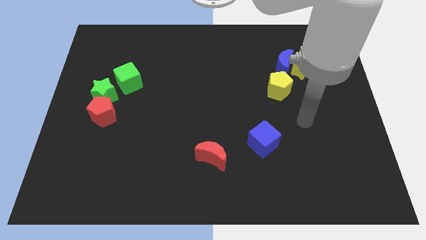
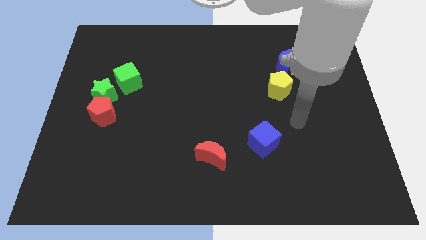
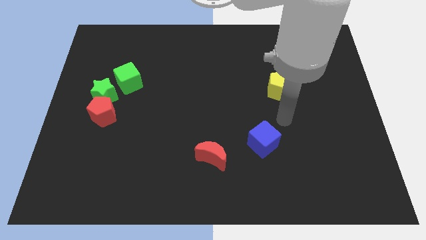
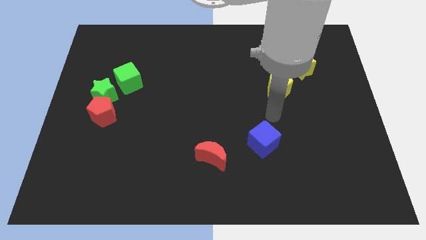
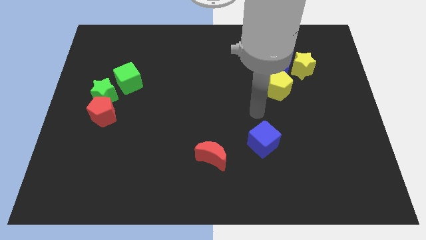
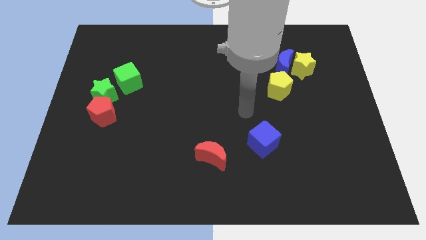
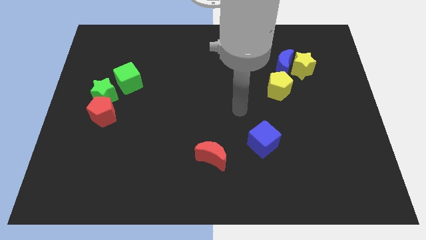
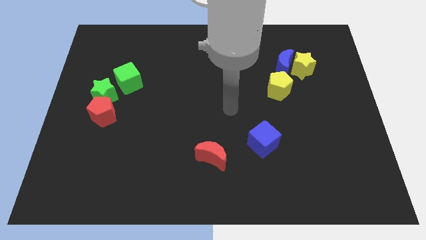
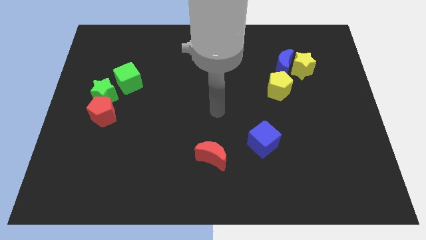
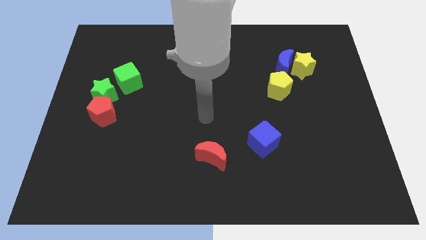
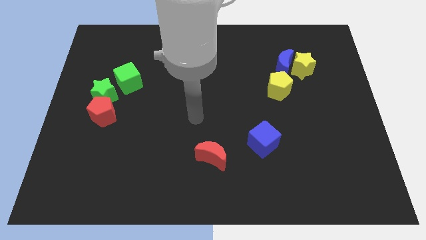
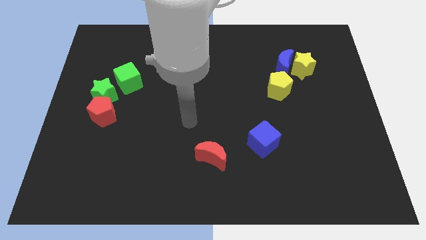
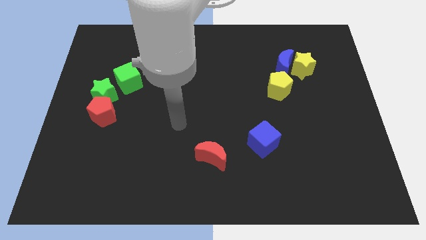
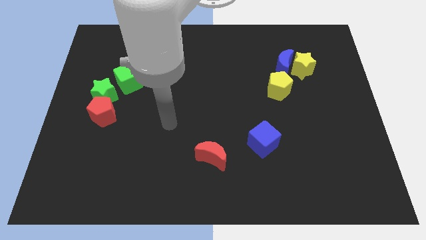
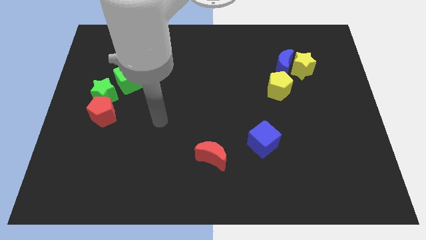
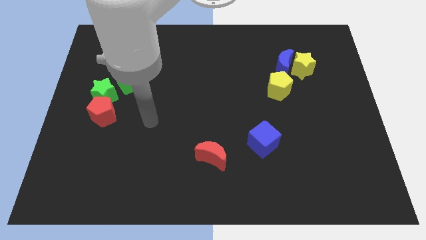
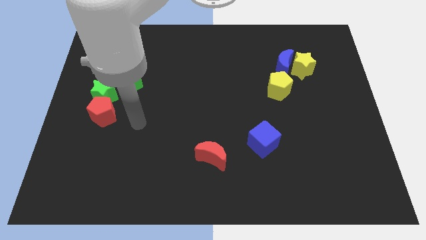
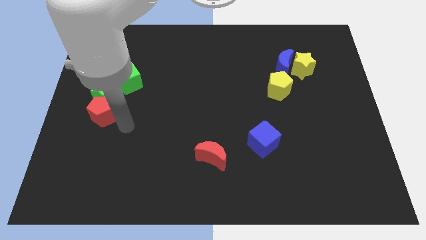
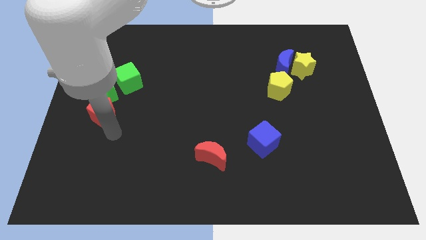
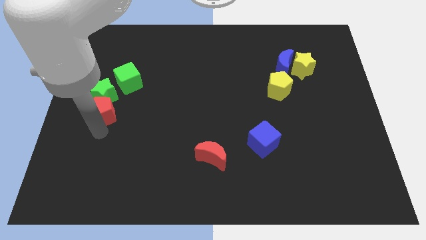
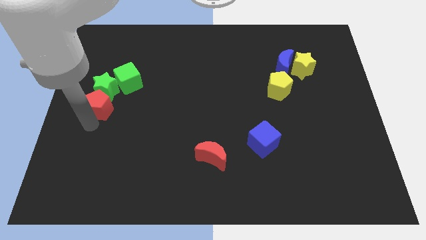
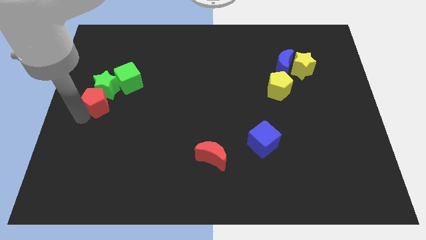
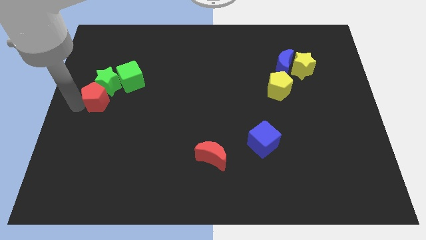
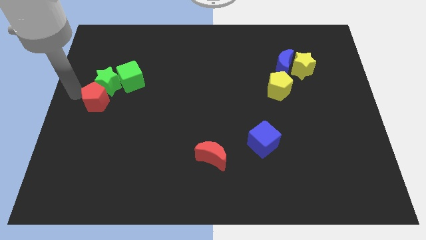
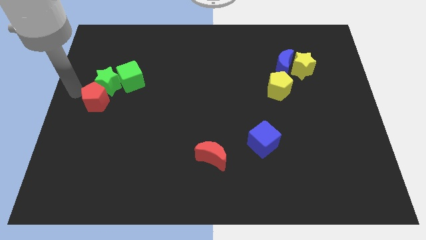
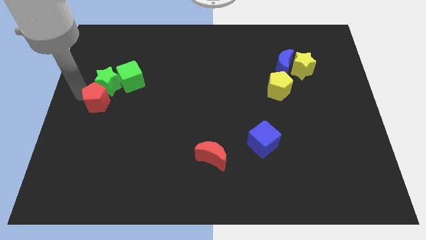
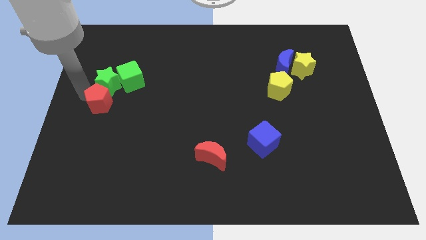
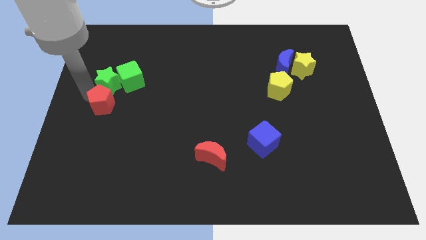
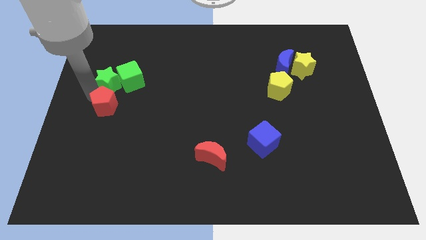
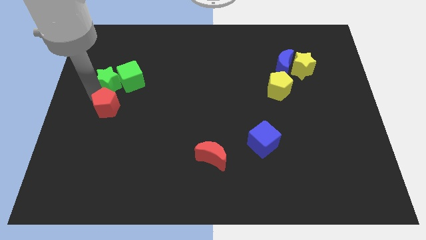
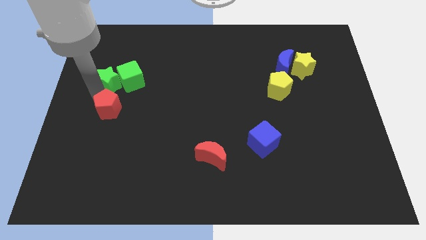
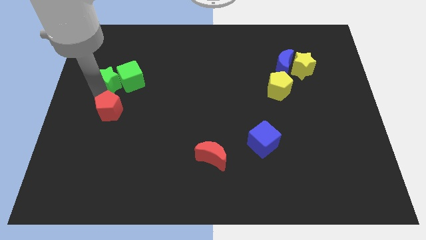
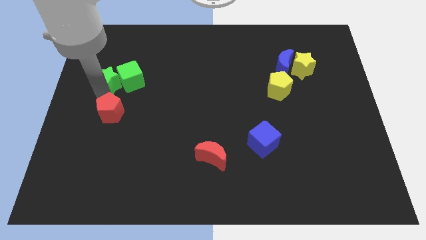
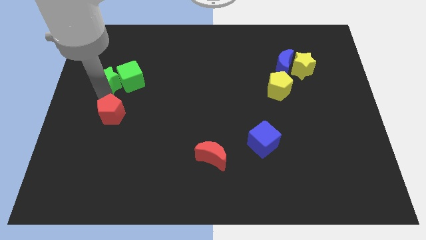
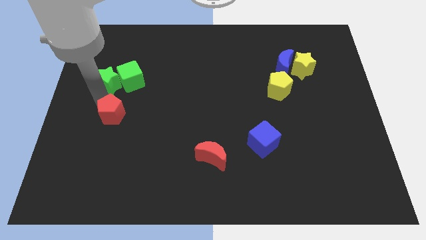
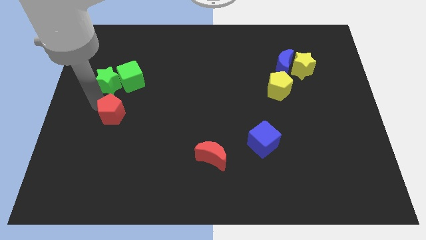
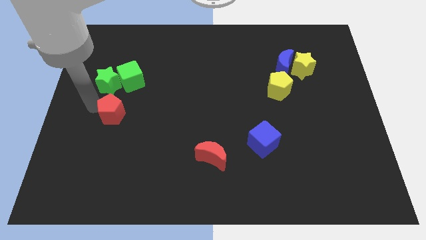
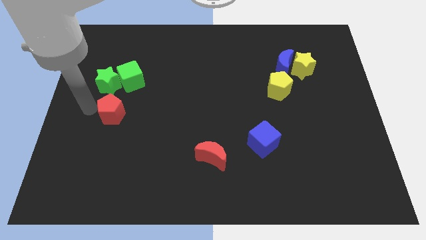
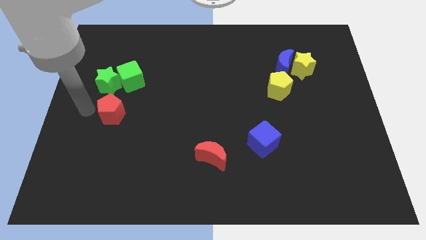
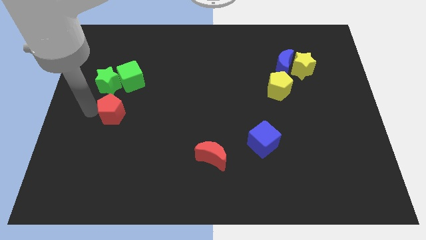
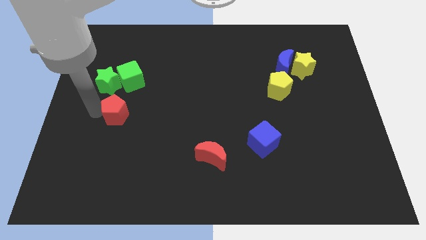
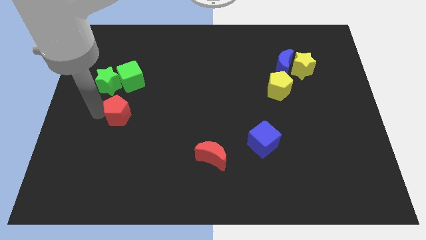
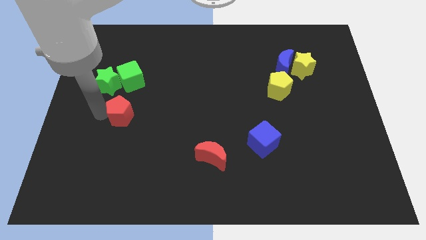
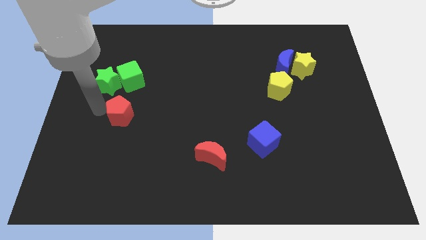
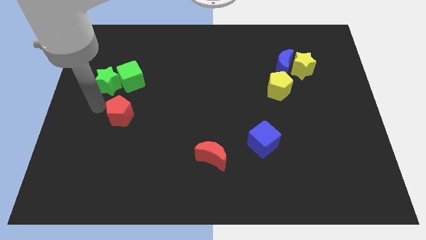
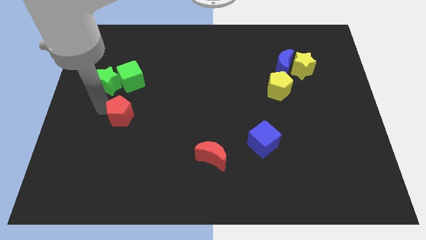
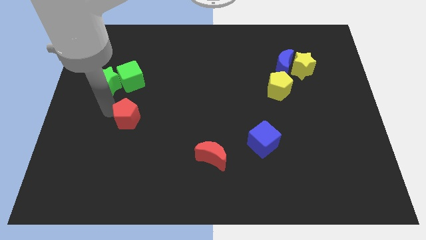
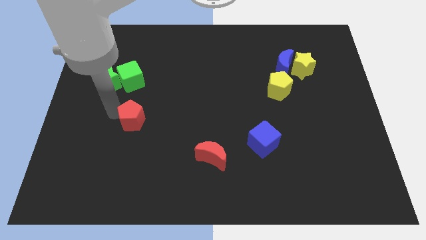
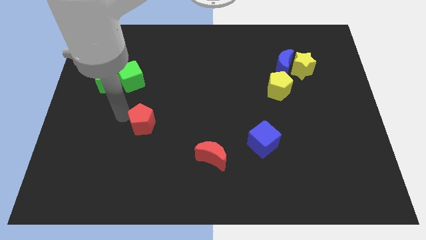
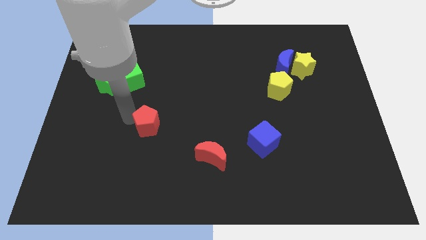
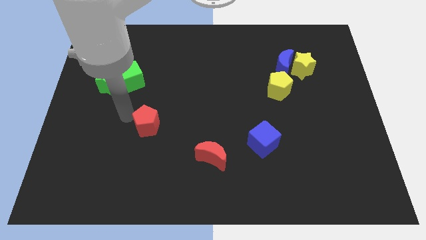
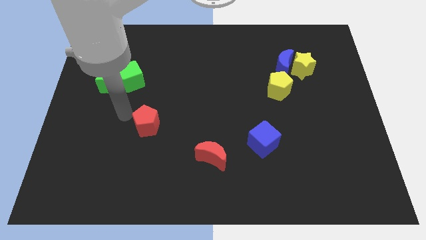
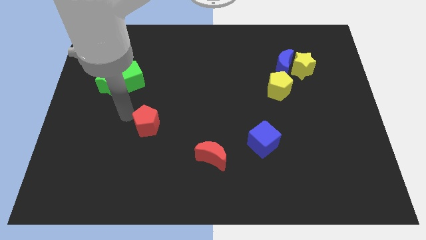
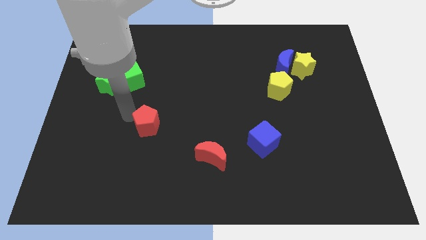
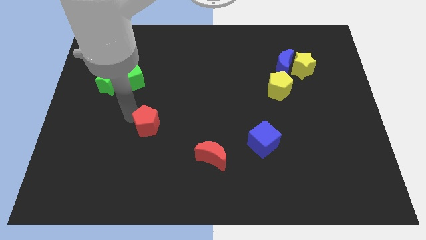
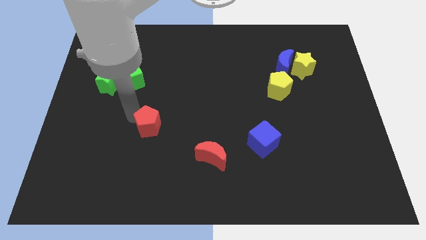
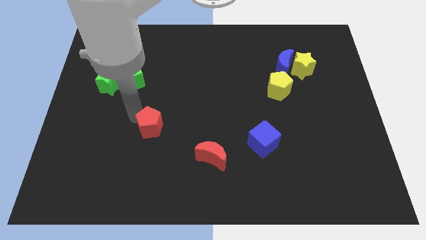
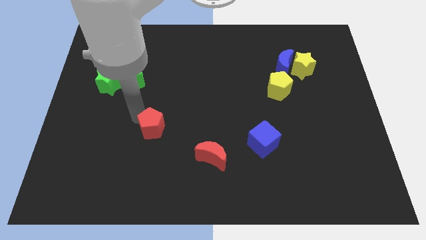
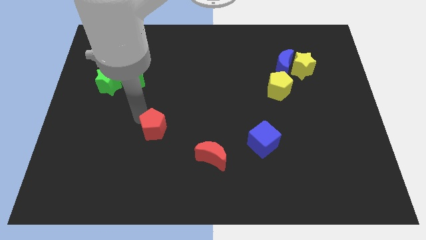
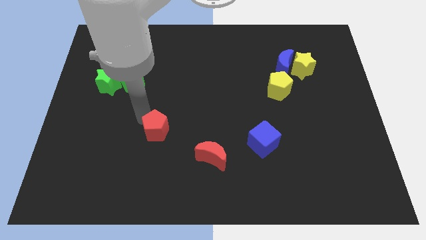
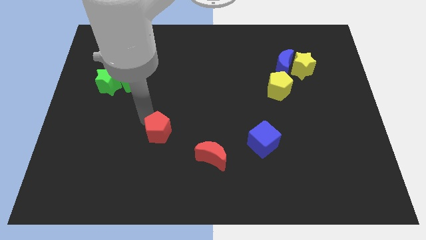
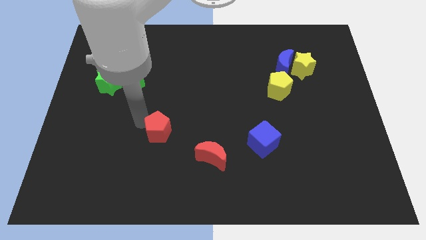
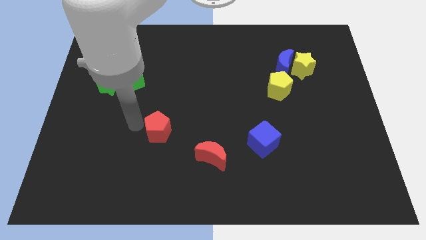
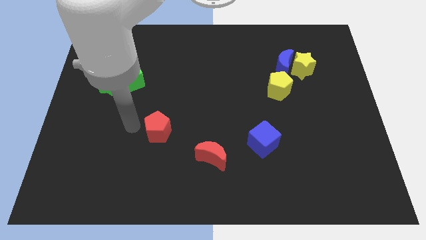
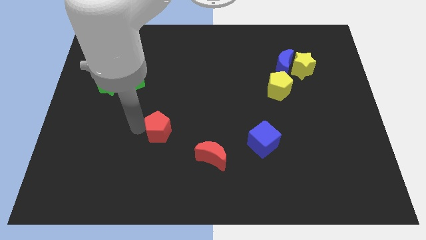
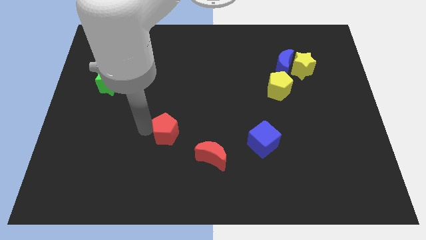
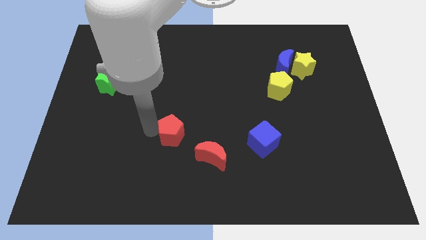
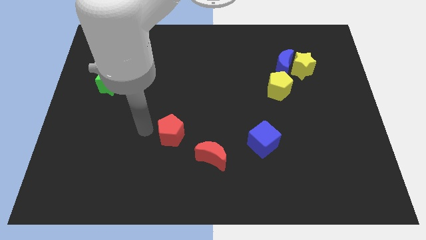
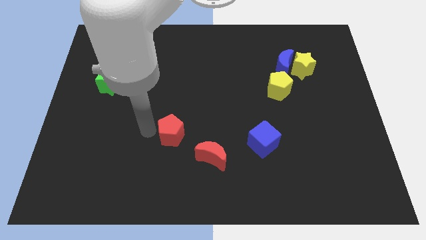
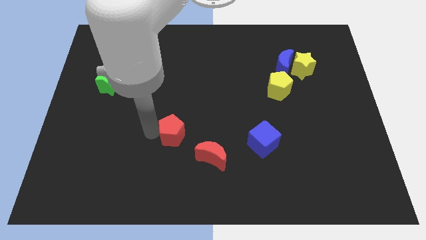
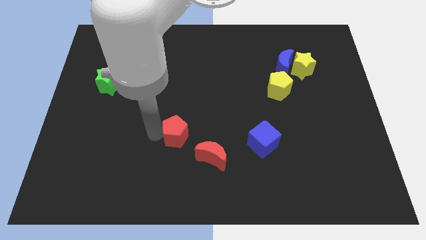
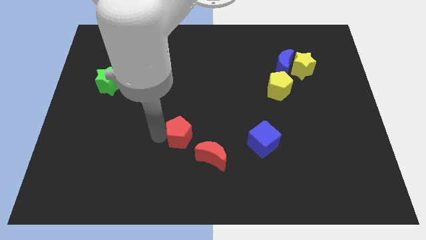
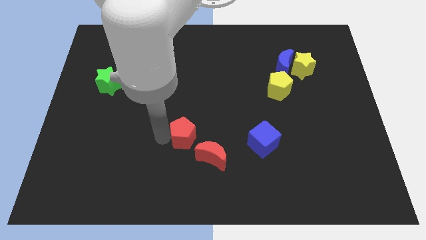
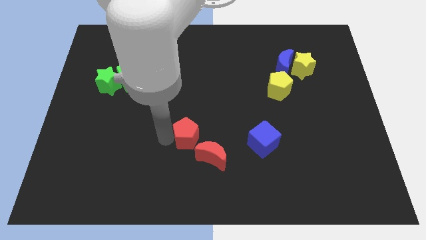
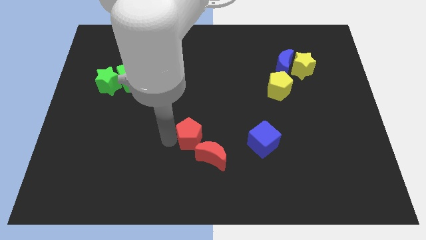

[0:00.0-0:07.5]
move the red pentagon just left of the blue cube
